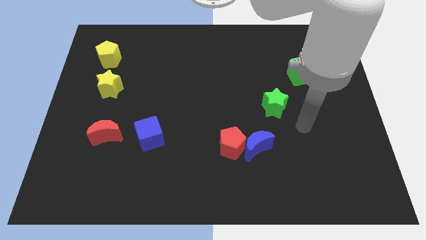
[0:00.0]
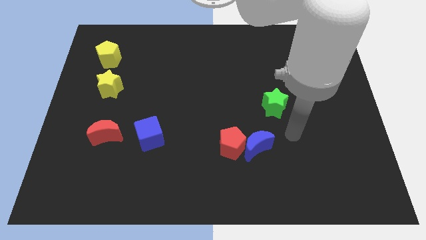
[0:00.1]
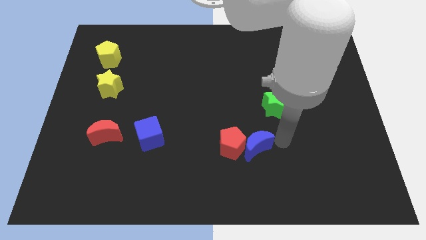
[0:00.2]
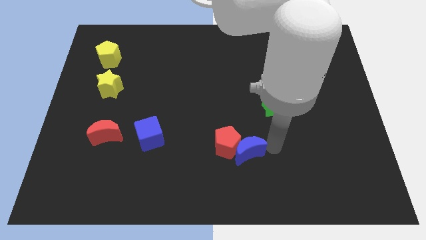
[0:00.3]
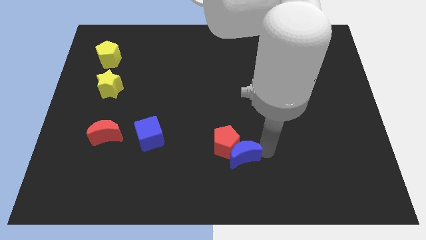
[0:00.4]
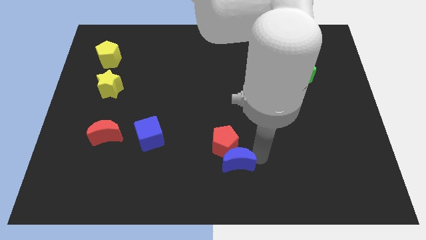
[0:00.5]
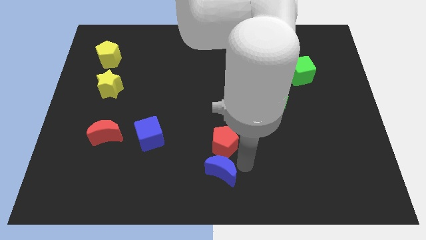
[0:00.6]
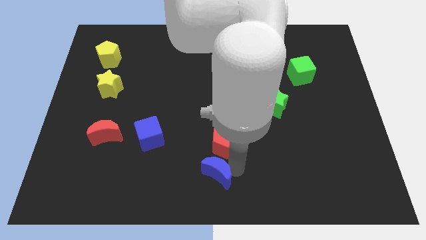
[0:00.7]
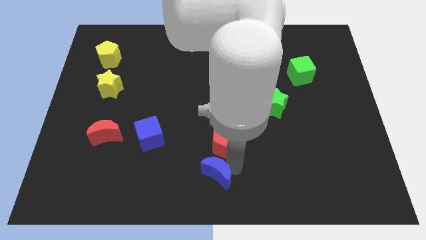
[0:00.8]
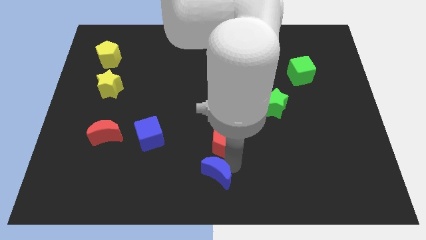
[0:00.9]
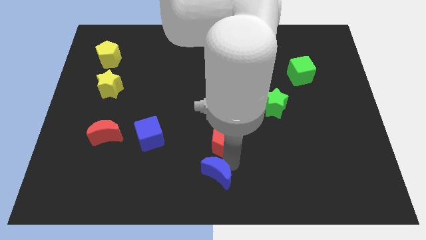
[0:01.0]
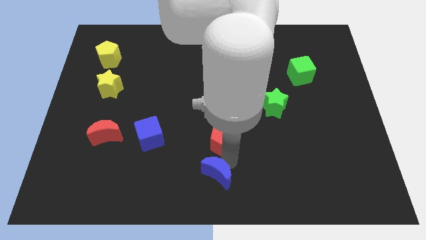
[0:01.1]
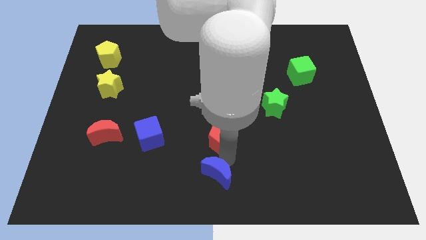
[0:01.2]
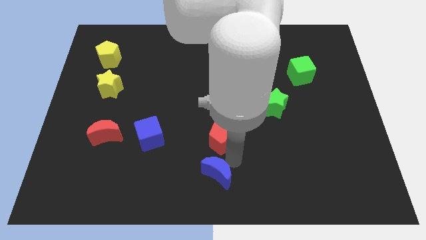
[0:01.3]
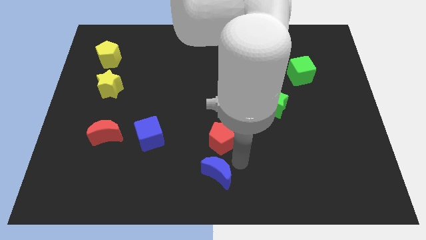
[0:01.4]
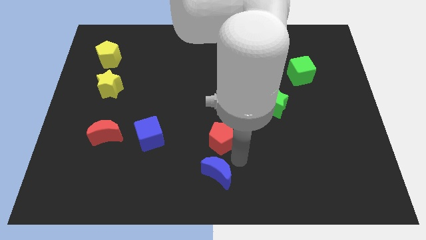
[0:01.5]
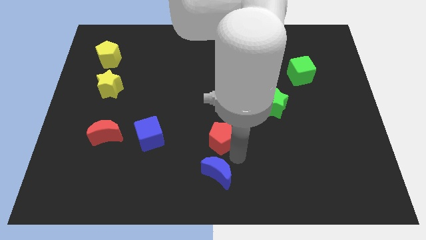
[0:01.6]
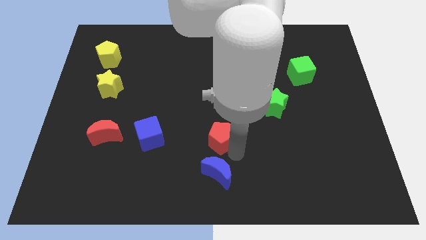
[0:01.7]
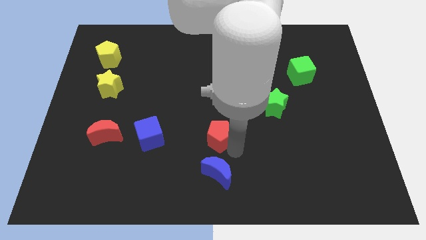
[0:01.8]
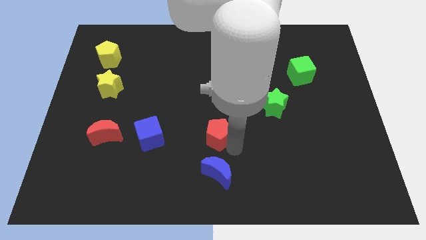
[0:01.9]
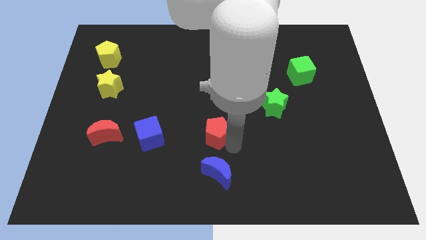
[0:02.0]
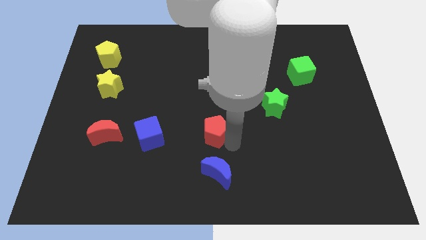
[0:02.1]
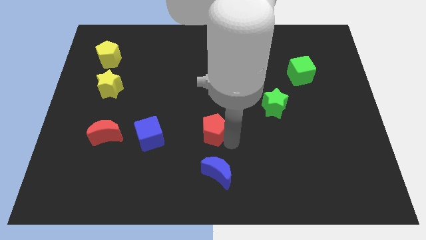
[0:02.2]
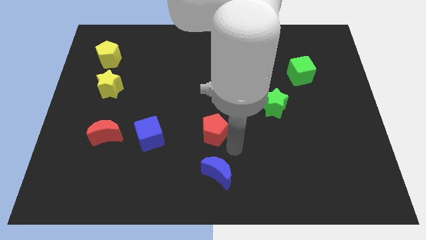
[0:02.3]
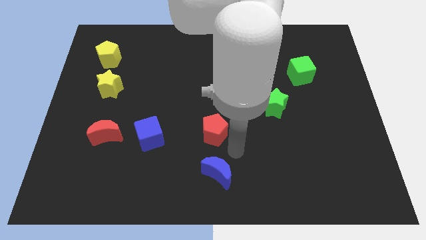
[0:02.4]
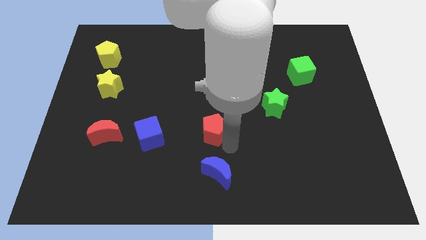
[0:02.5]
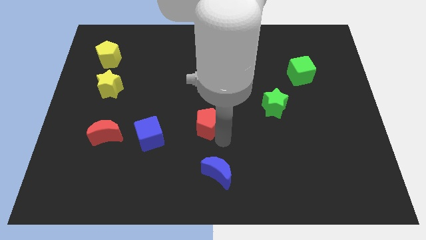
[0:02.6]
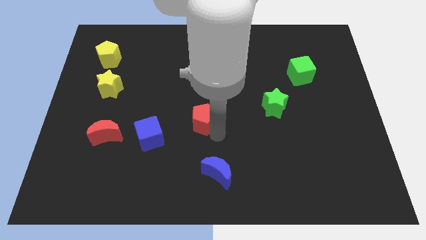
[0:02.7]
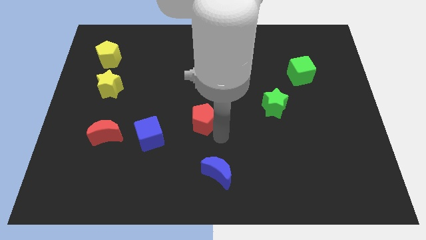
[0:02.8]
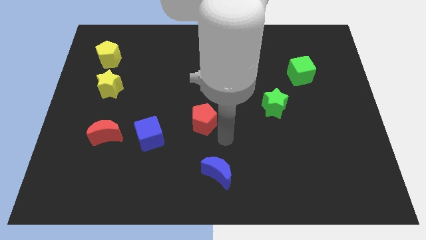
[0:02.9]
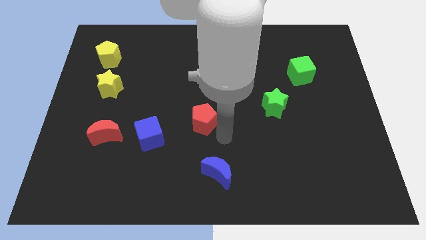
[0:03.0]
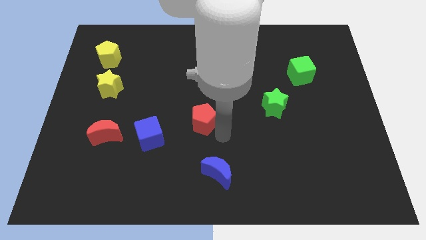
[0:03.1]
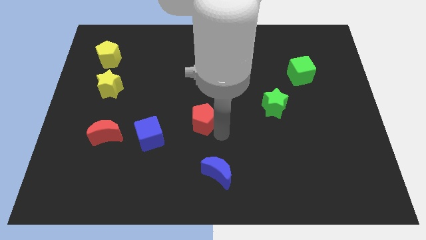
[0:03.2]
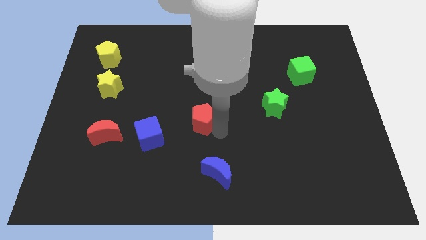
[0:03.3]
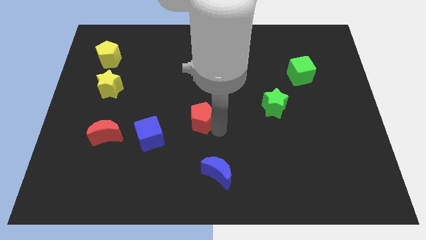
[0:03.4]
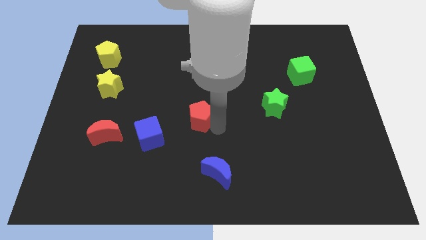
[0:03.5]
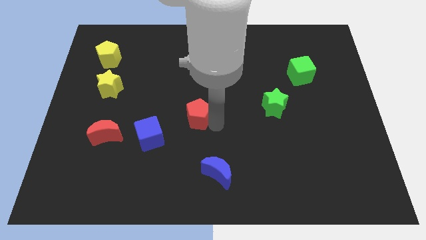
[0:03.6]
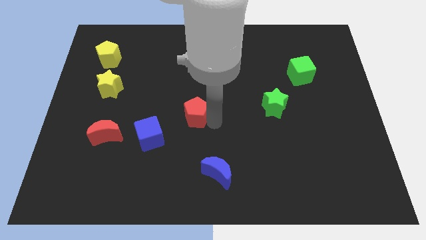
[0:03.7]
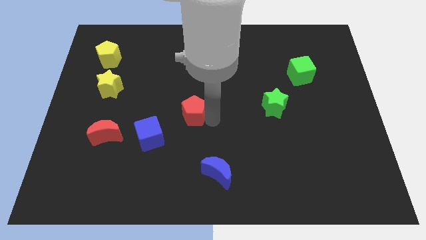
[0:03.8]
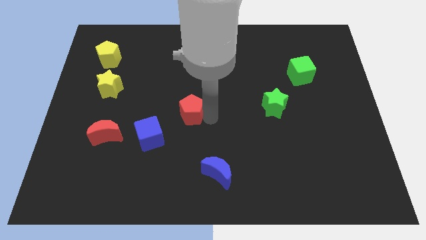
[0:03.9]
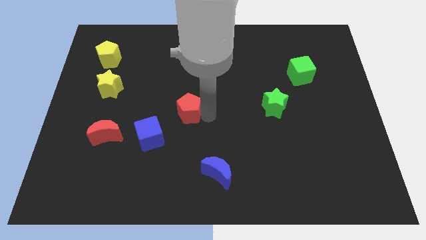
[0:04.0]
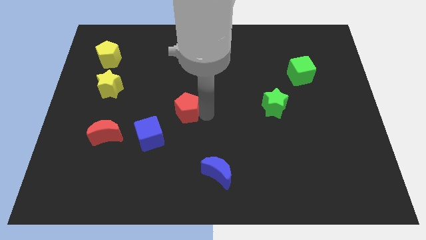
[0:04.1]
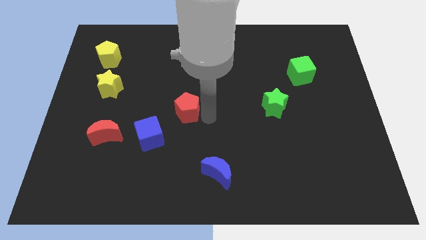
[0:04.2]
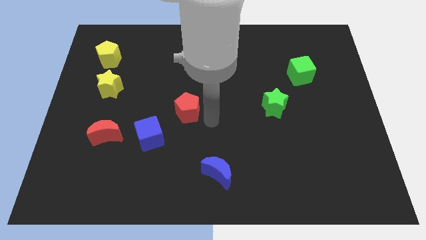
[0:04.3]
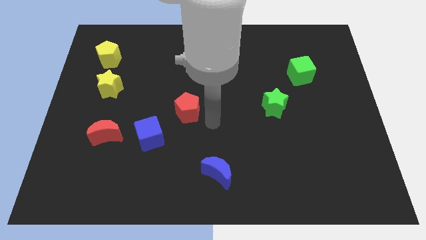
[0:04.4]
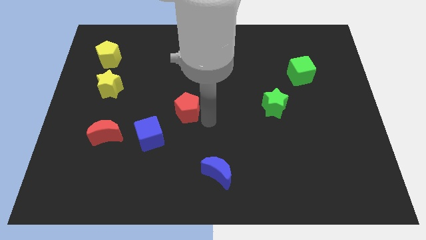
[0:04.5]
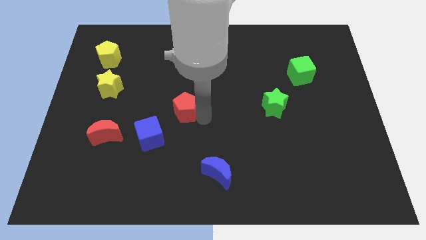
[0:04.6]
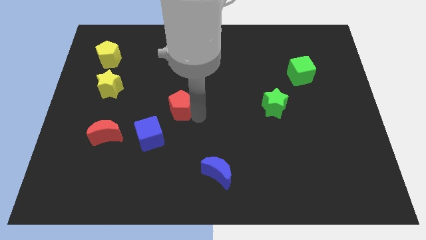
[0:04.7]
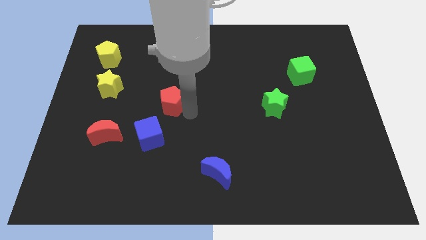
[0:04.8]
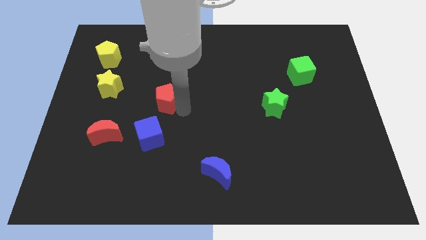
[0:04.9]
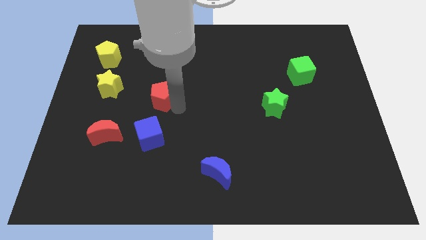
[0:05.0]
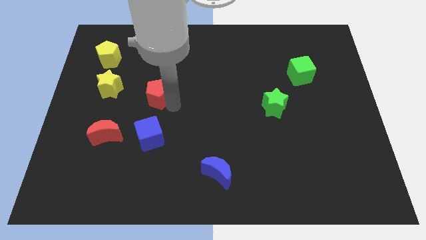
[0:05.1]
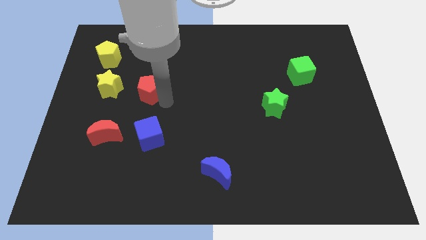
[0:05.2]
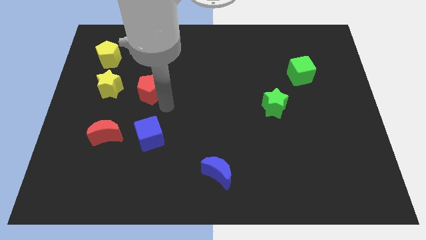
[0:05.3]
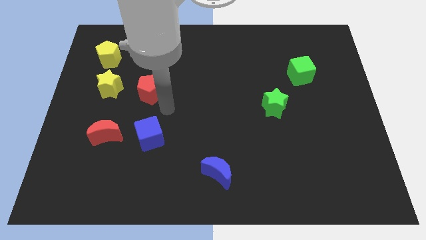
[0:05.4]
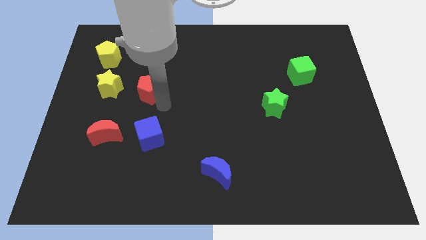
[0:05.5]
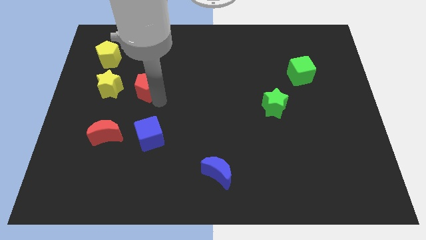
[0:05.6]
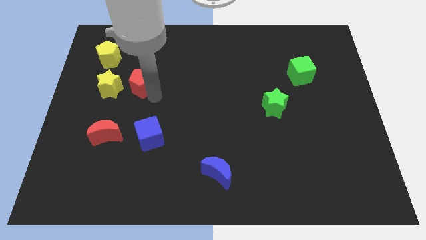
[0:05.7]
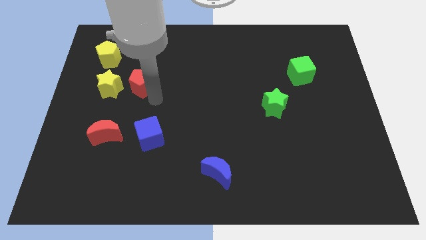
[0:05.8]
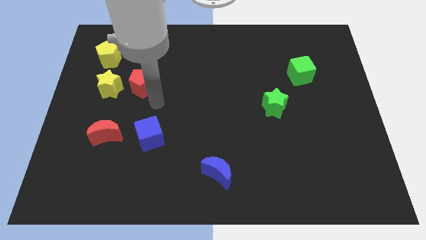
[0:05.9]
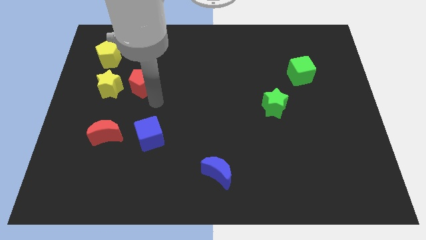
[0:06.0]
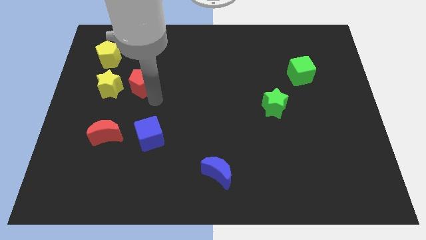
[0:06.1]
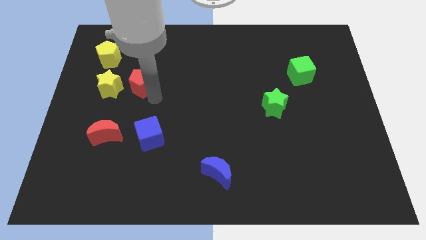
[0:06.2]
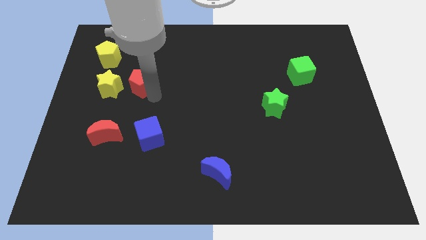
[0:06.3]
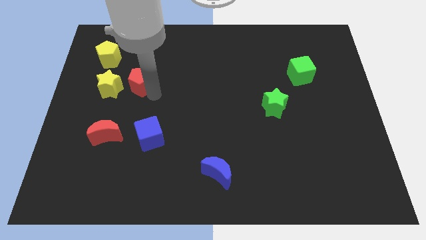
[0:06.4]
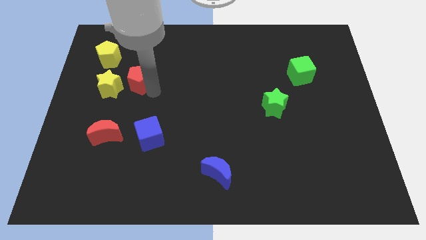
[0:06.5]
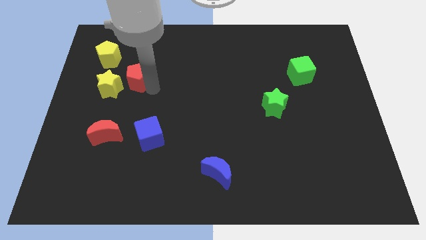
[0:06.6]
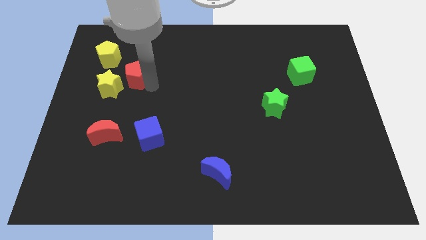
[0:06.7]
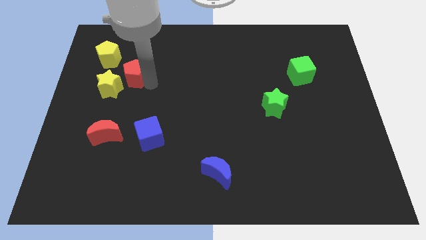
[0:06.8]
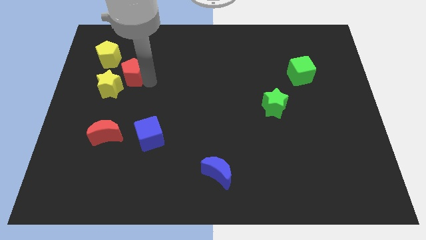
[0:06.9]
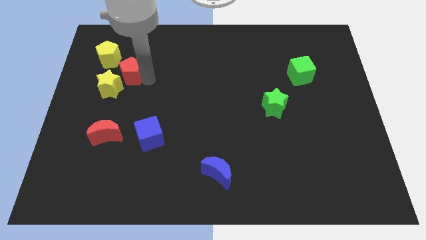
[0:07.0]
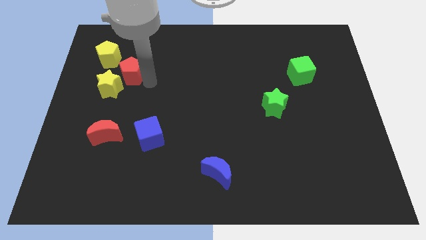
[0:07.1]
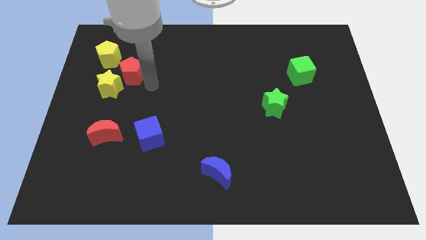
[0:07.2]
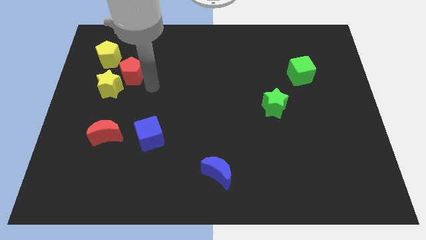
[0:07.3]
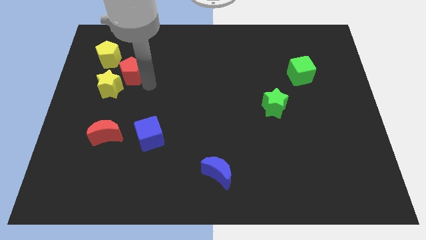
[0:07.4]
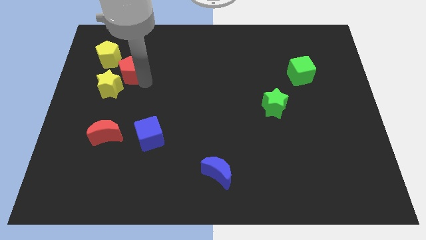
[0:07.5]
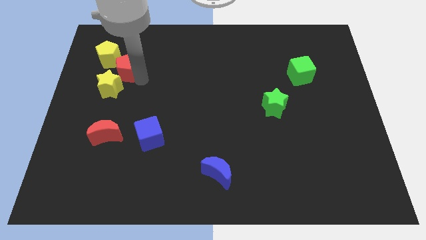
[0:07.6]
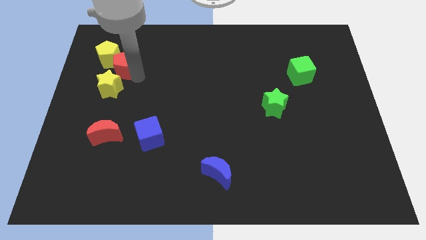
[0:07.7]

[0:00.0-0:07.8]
put the red pentagon close to the yellow pentagon

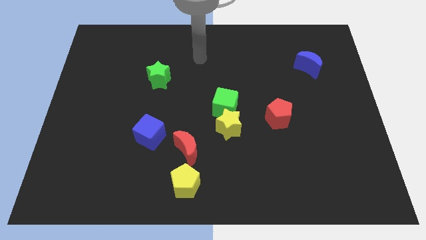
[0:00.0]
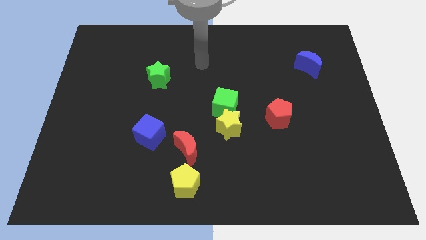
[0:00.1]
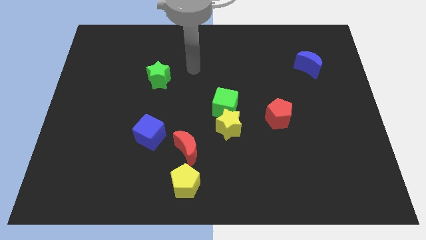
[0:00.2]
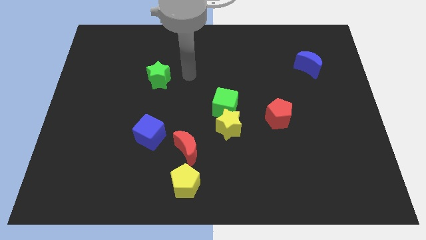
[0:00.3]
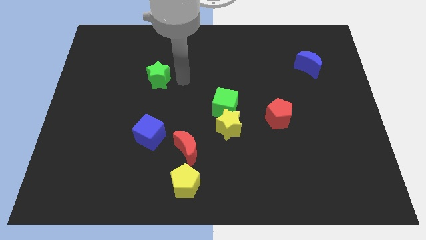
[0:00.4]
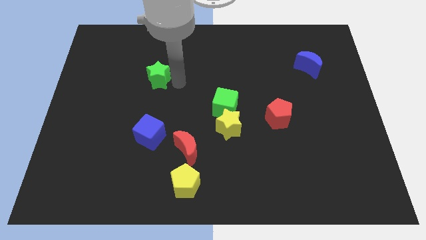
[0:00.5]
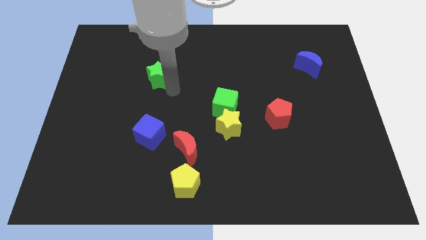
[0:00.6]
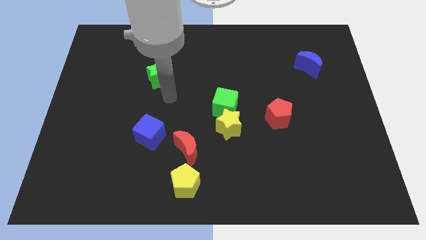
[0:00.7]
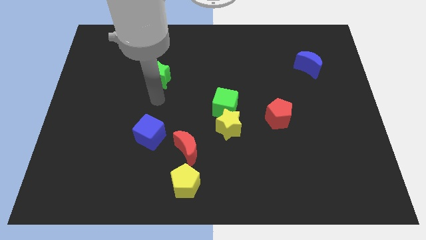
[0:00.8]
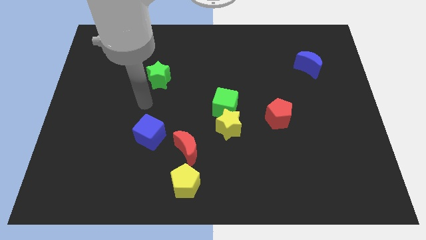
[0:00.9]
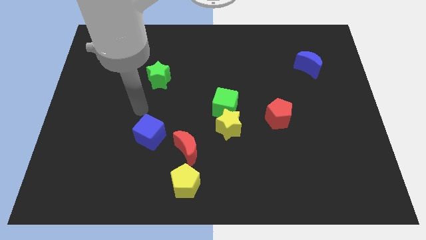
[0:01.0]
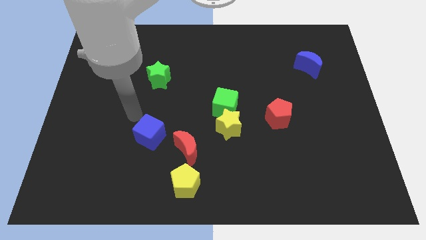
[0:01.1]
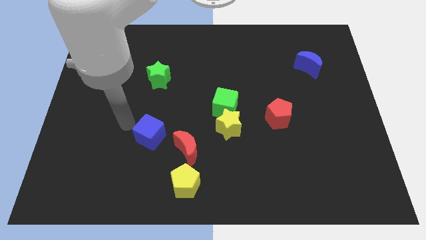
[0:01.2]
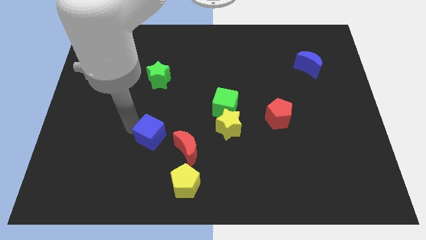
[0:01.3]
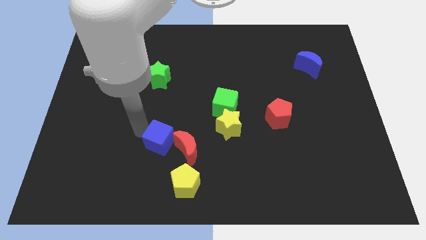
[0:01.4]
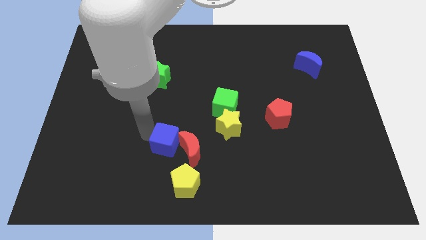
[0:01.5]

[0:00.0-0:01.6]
move the blue cube next to the red moon
